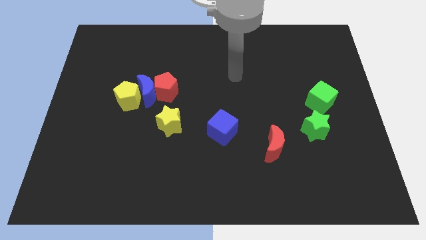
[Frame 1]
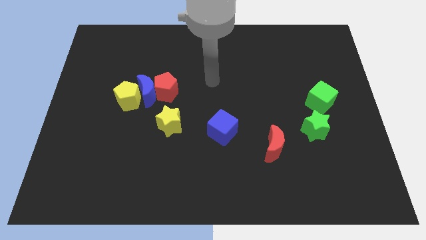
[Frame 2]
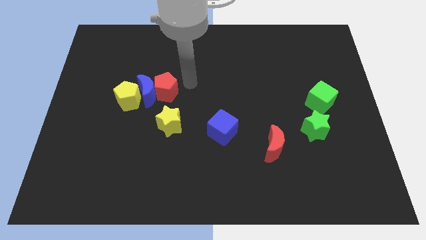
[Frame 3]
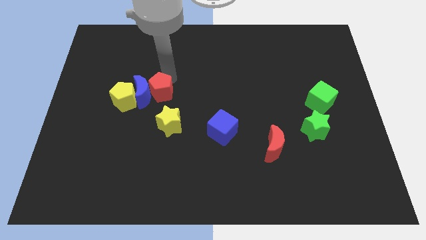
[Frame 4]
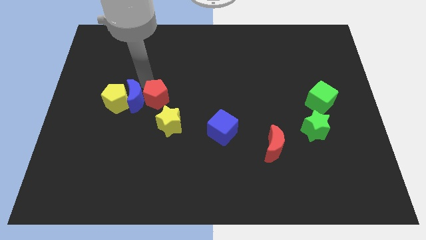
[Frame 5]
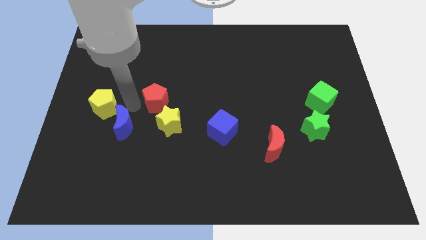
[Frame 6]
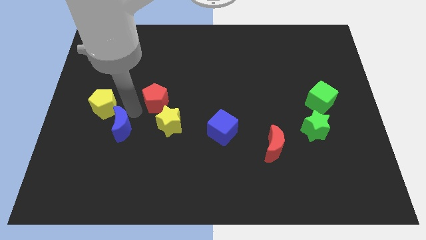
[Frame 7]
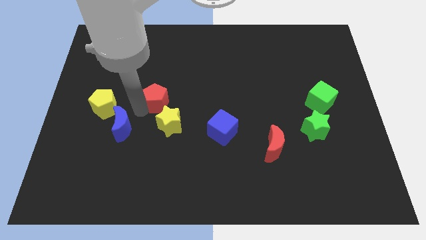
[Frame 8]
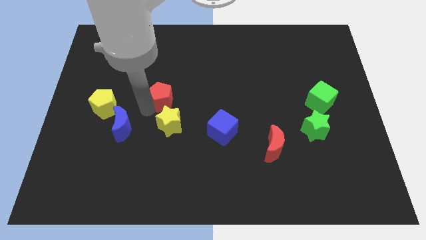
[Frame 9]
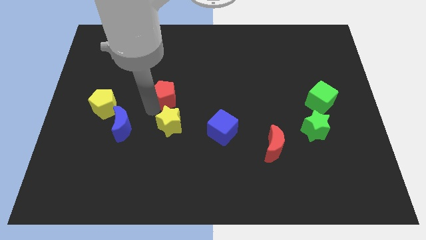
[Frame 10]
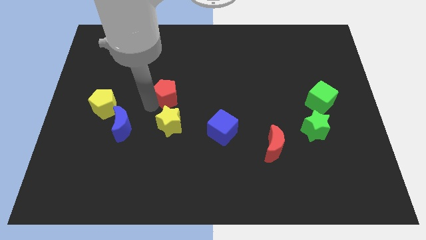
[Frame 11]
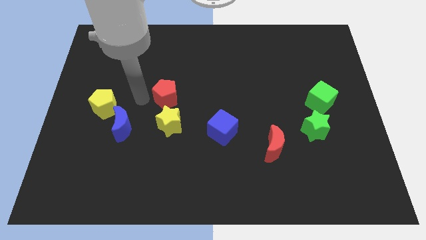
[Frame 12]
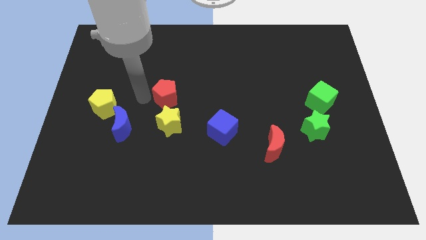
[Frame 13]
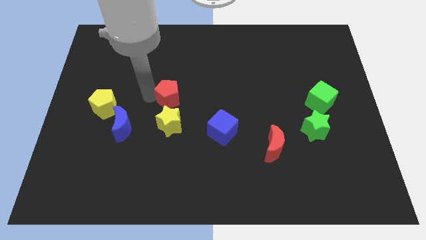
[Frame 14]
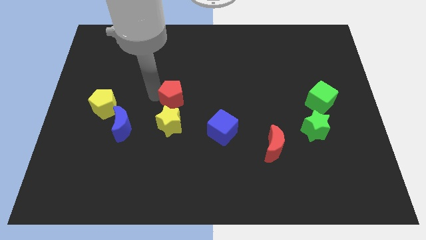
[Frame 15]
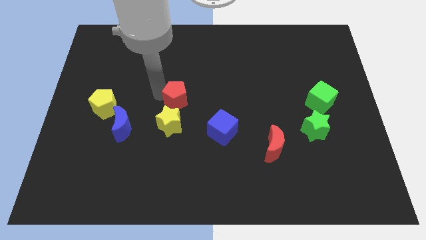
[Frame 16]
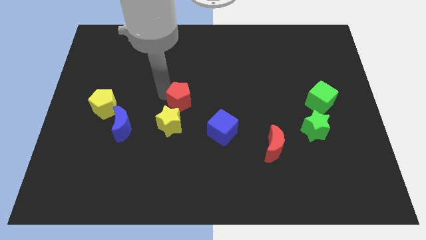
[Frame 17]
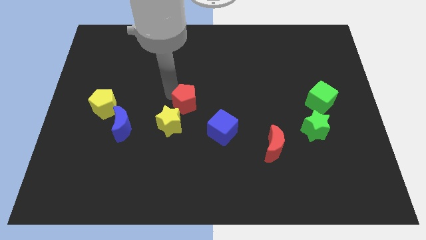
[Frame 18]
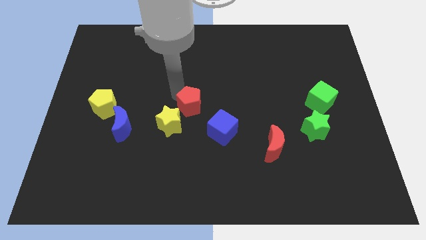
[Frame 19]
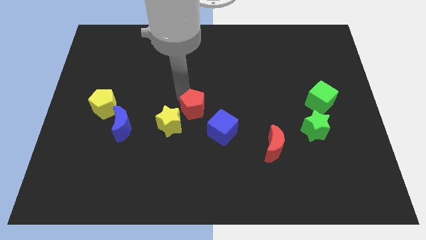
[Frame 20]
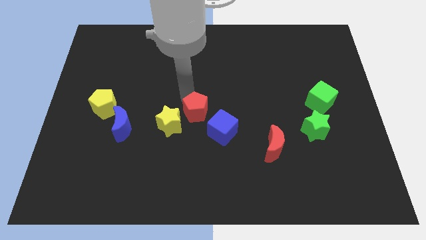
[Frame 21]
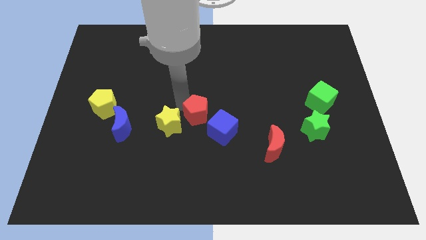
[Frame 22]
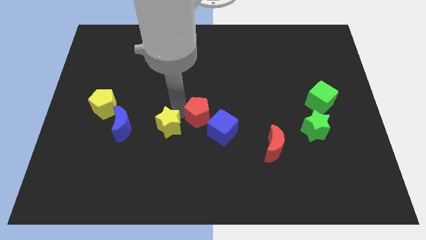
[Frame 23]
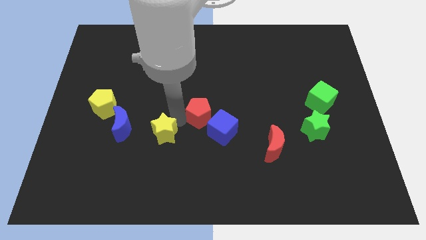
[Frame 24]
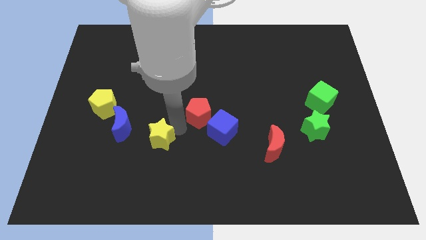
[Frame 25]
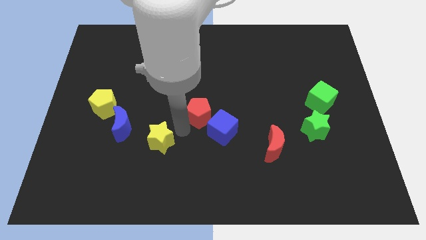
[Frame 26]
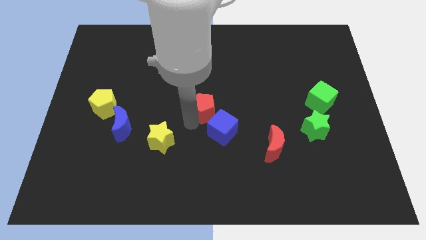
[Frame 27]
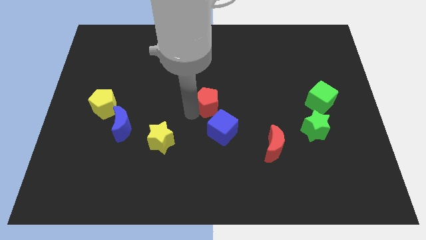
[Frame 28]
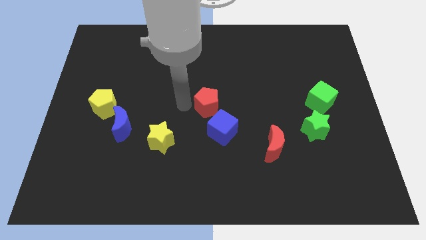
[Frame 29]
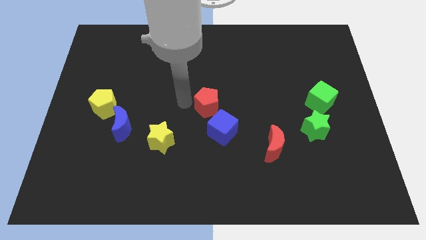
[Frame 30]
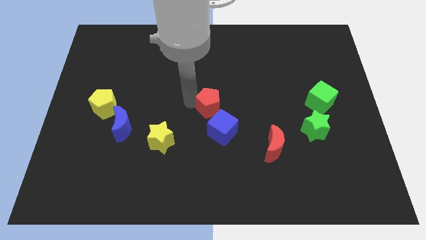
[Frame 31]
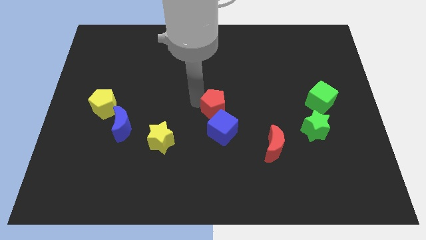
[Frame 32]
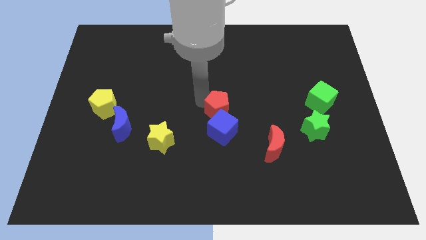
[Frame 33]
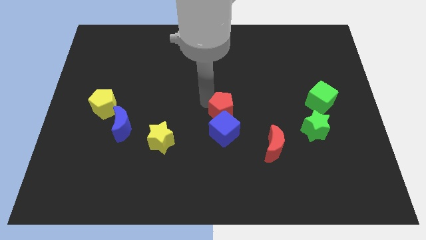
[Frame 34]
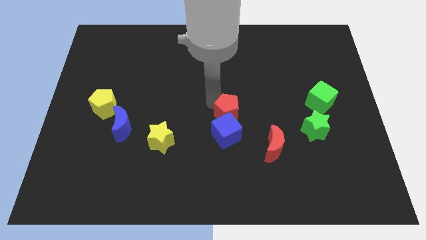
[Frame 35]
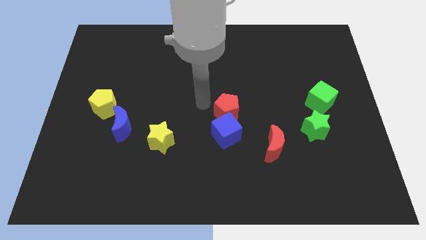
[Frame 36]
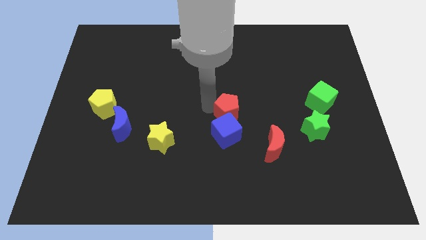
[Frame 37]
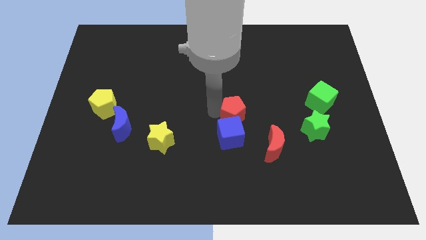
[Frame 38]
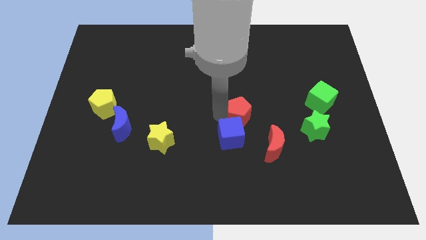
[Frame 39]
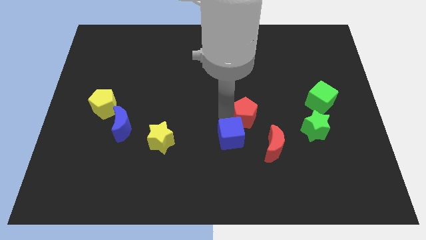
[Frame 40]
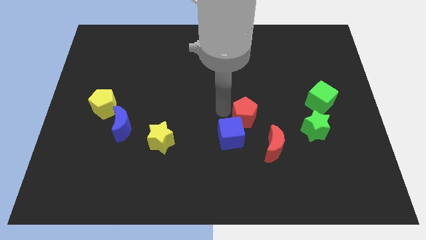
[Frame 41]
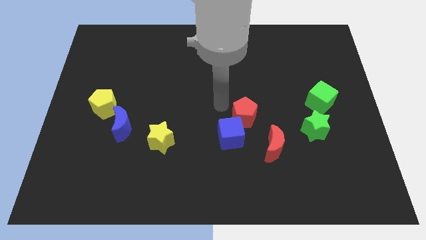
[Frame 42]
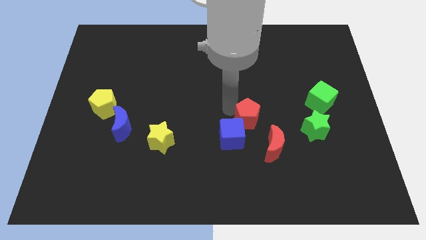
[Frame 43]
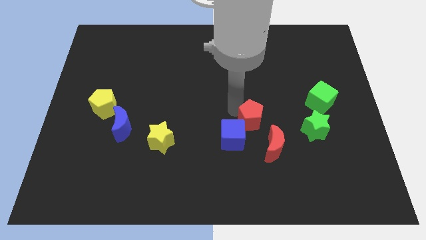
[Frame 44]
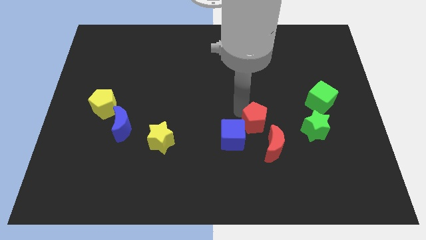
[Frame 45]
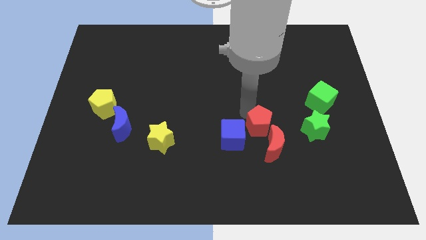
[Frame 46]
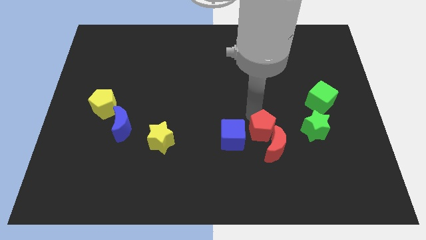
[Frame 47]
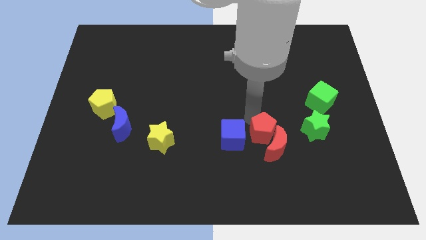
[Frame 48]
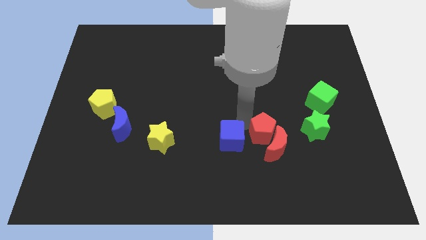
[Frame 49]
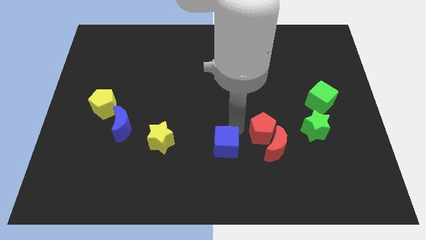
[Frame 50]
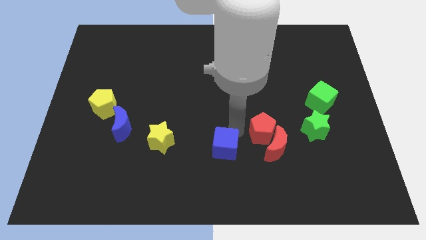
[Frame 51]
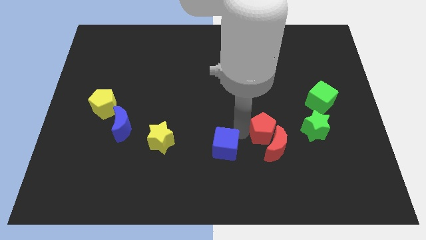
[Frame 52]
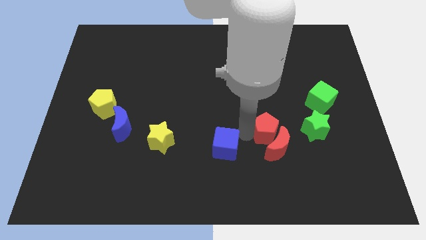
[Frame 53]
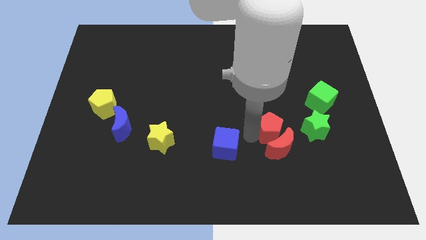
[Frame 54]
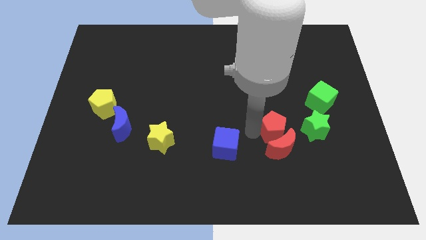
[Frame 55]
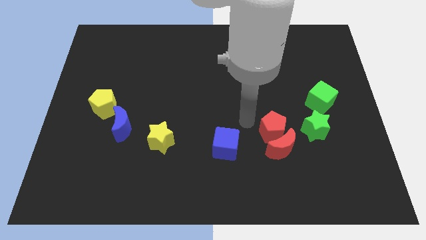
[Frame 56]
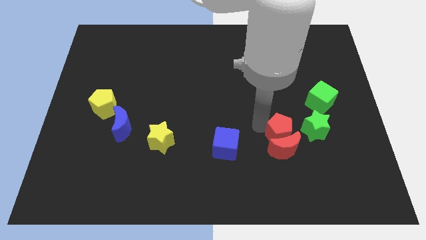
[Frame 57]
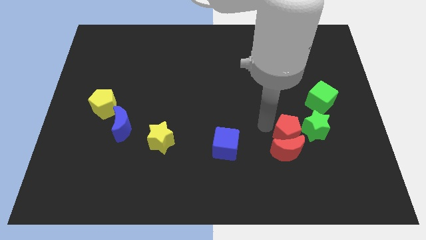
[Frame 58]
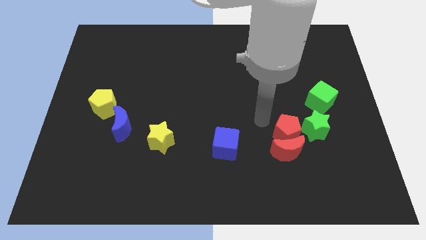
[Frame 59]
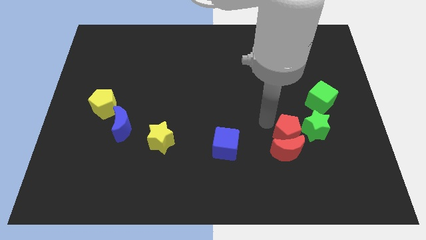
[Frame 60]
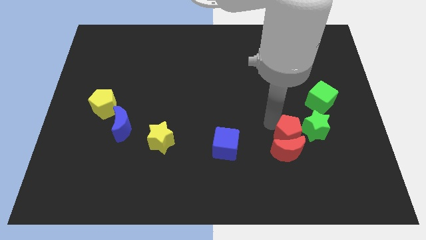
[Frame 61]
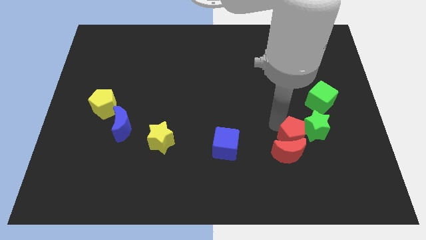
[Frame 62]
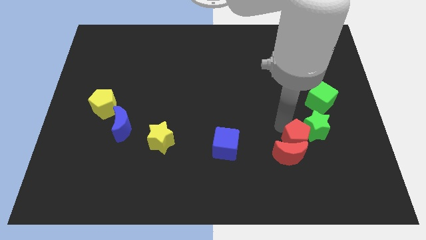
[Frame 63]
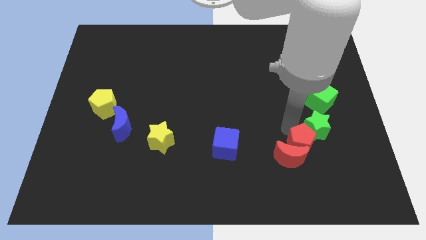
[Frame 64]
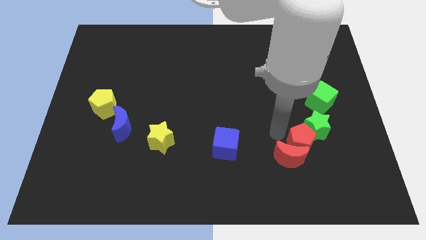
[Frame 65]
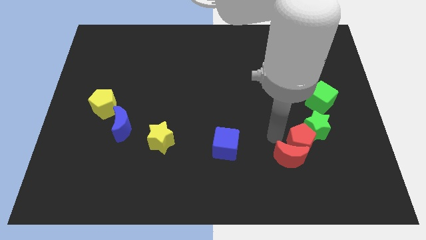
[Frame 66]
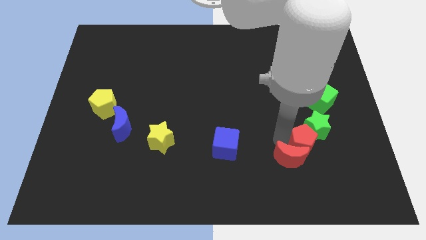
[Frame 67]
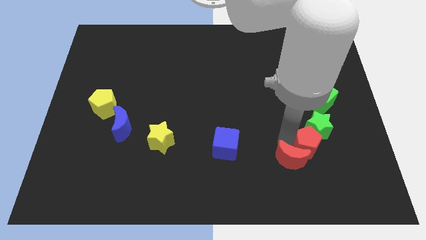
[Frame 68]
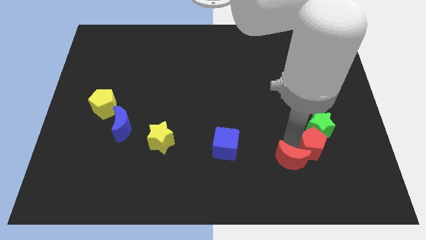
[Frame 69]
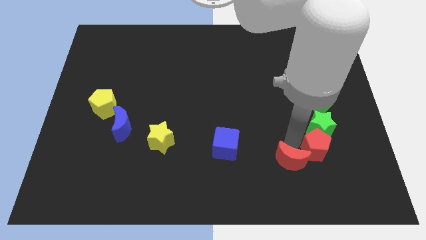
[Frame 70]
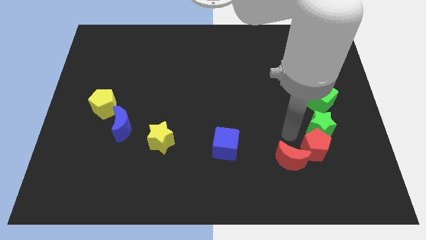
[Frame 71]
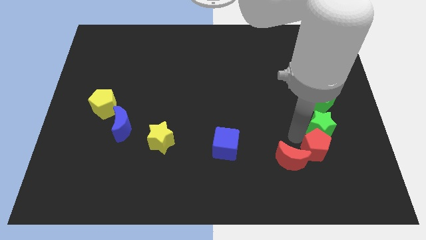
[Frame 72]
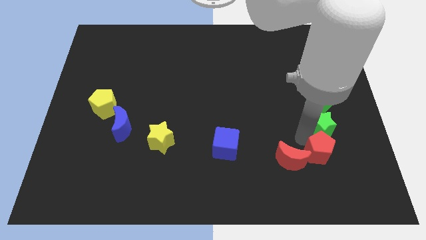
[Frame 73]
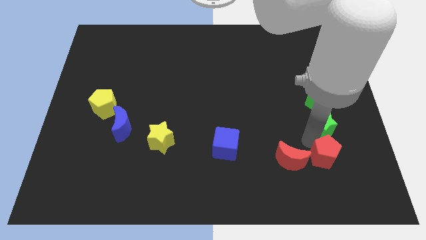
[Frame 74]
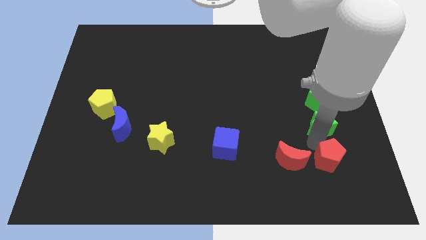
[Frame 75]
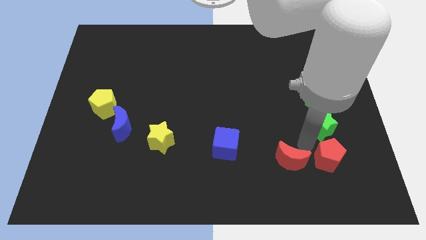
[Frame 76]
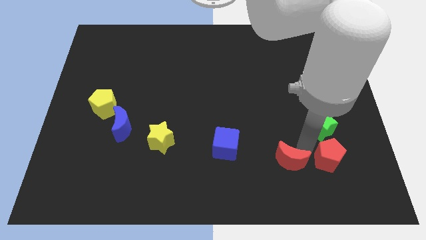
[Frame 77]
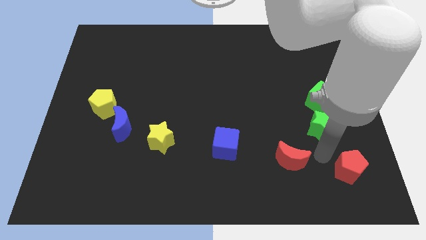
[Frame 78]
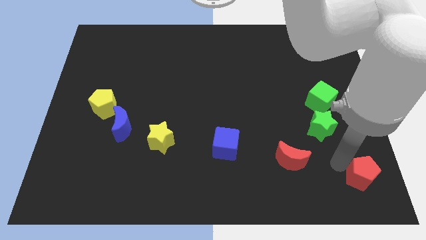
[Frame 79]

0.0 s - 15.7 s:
slide the red pentagon to the bottom right
